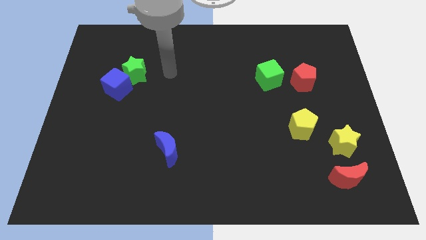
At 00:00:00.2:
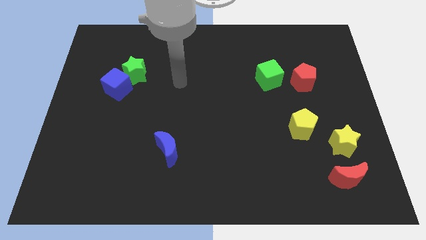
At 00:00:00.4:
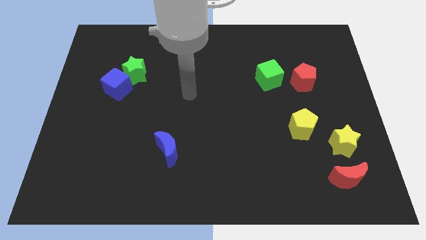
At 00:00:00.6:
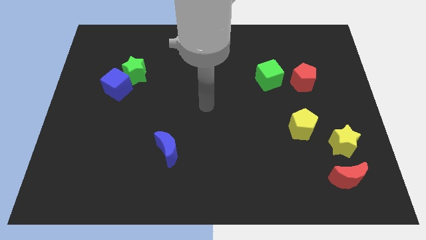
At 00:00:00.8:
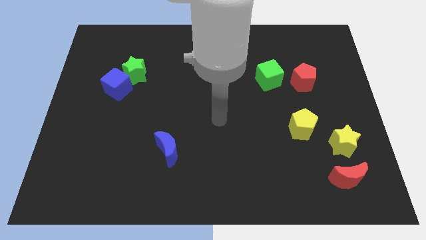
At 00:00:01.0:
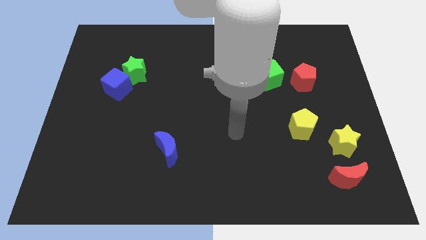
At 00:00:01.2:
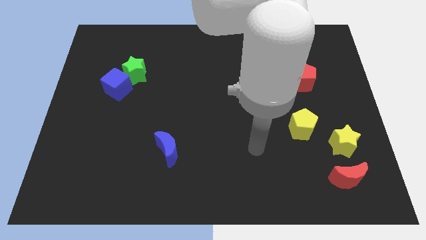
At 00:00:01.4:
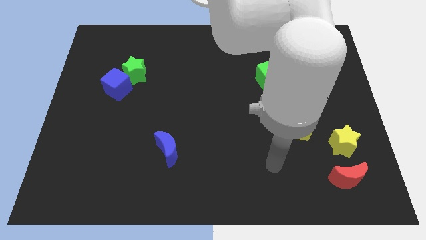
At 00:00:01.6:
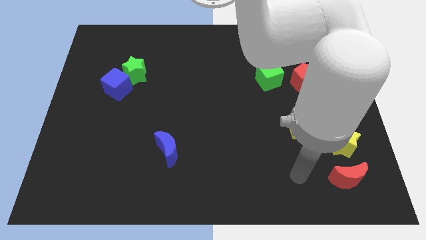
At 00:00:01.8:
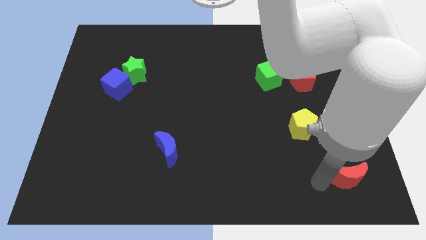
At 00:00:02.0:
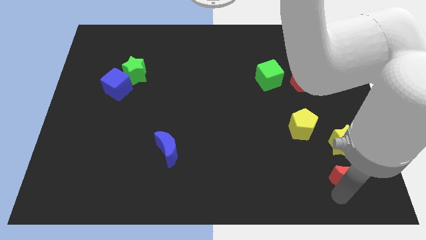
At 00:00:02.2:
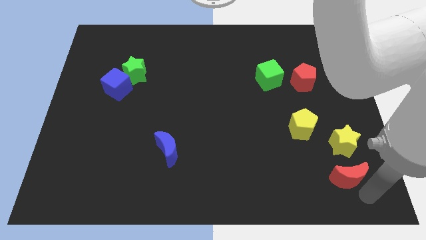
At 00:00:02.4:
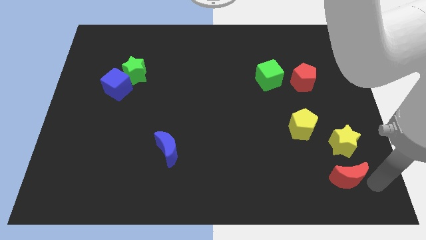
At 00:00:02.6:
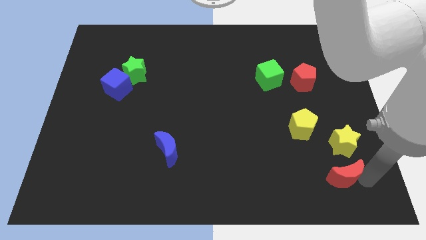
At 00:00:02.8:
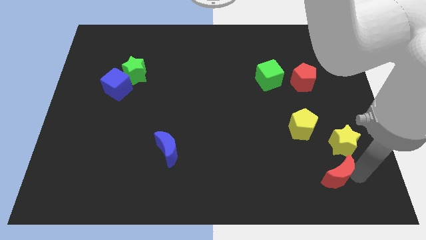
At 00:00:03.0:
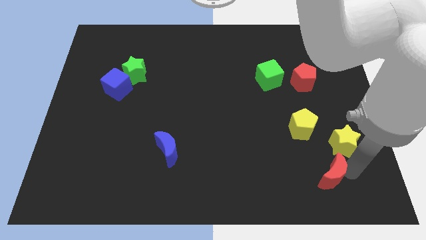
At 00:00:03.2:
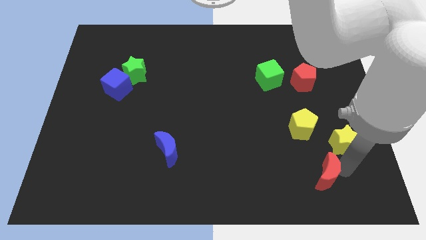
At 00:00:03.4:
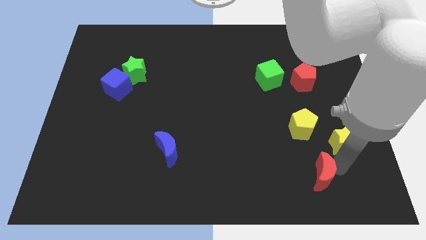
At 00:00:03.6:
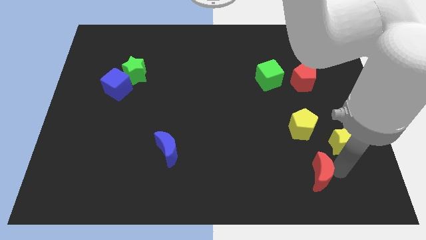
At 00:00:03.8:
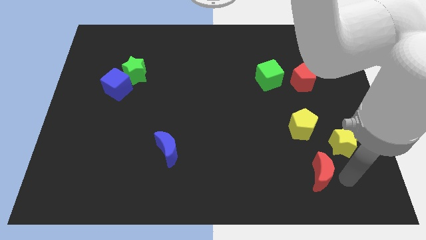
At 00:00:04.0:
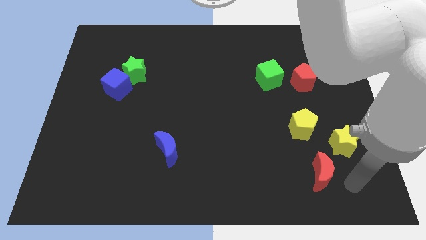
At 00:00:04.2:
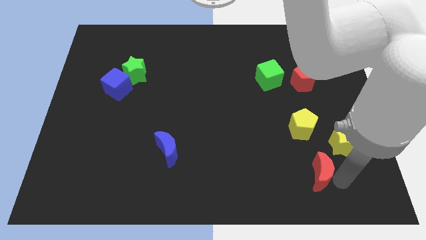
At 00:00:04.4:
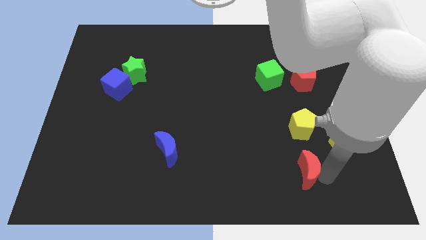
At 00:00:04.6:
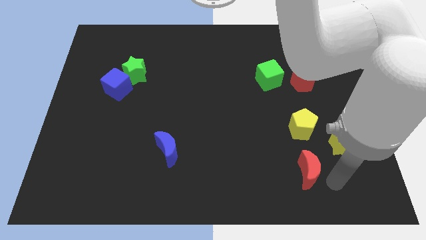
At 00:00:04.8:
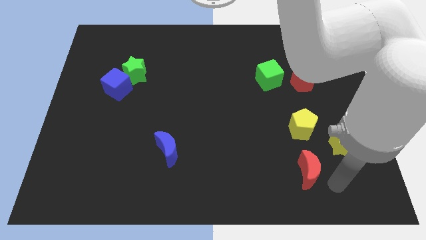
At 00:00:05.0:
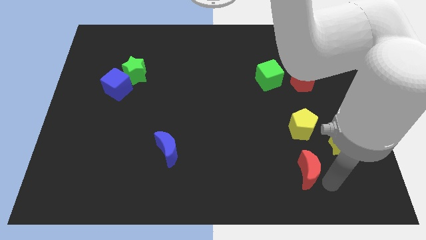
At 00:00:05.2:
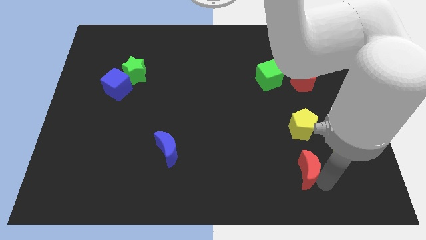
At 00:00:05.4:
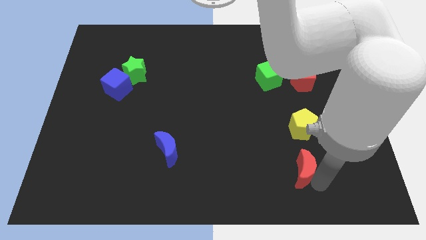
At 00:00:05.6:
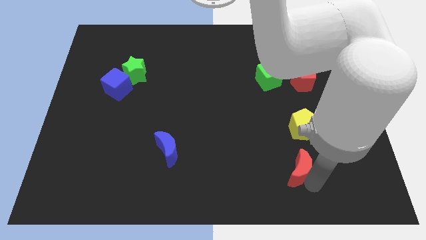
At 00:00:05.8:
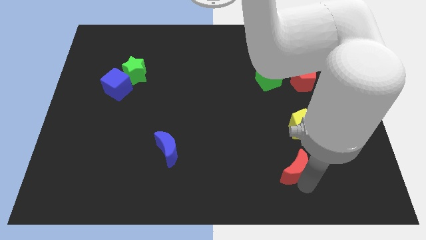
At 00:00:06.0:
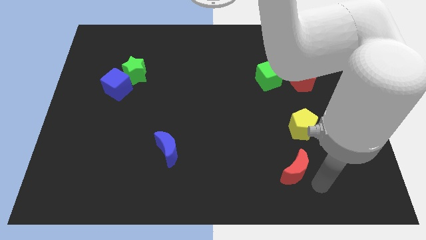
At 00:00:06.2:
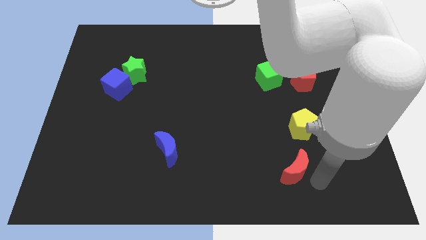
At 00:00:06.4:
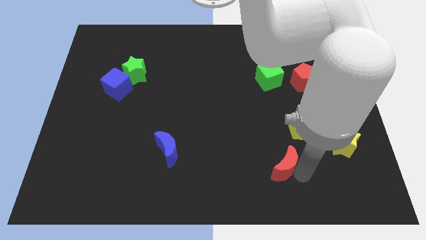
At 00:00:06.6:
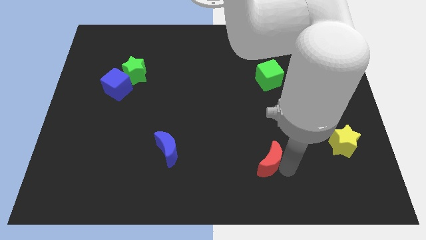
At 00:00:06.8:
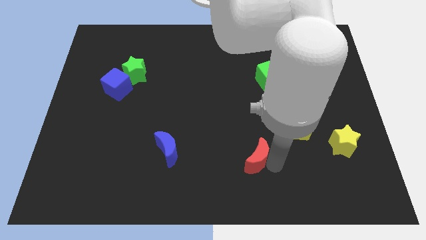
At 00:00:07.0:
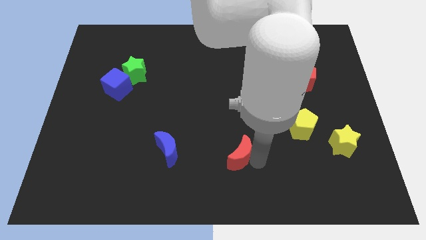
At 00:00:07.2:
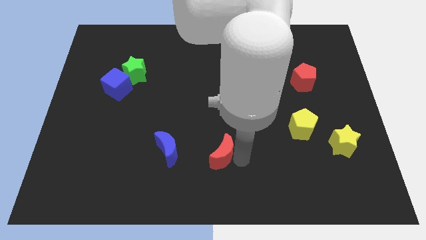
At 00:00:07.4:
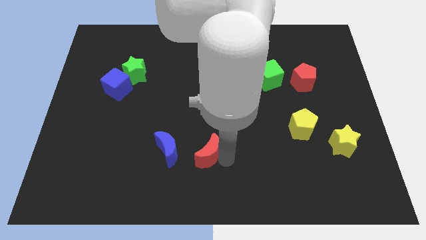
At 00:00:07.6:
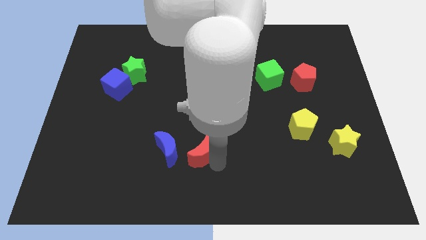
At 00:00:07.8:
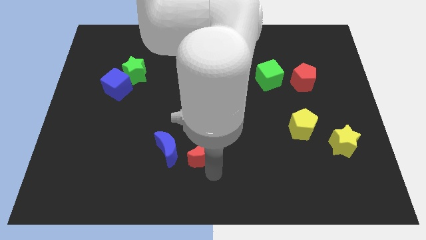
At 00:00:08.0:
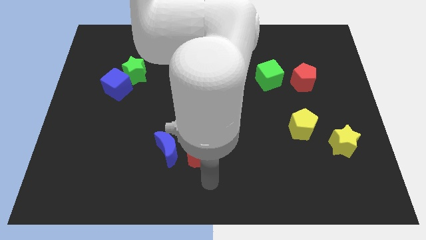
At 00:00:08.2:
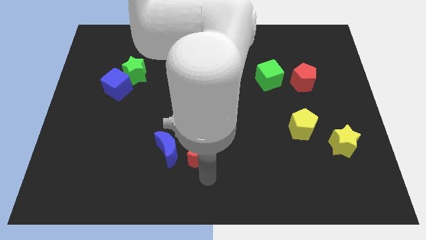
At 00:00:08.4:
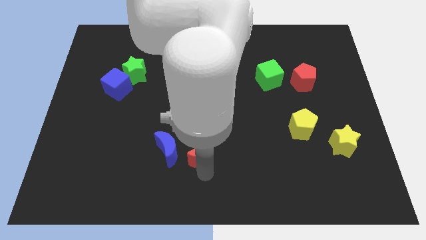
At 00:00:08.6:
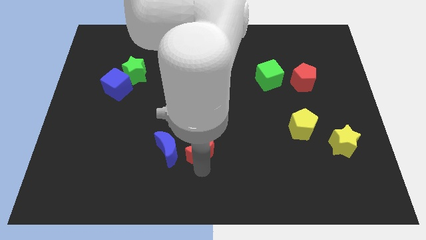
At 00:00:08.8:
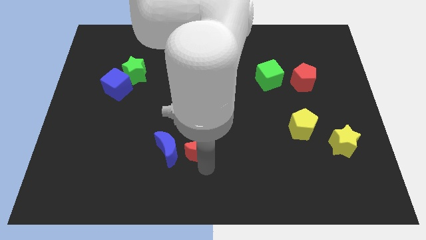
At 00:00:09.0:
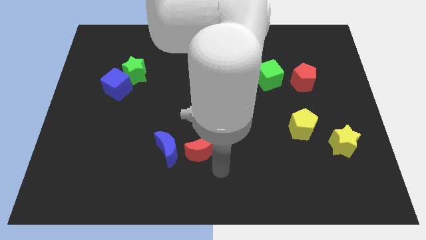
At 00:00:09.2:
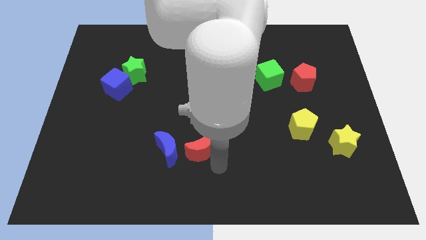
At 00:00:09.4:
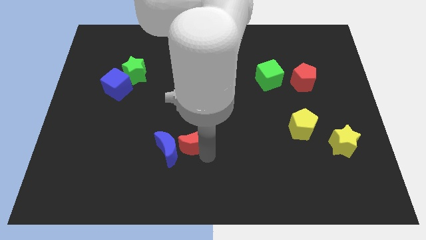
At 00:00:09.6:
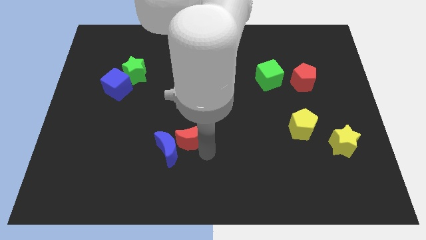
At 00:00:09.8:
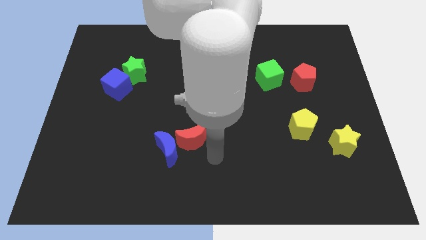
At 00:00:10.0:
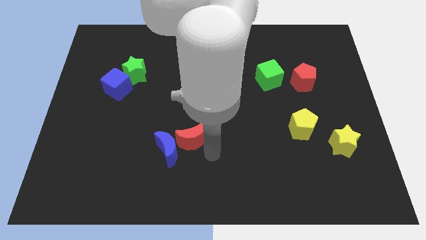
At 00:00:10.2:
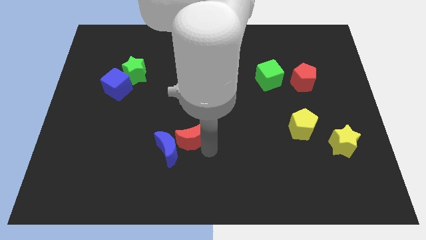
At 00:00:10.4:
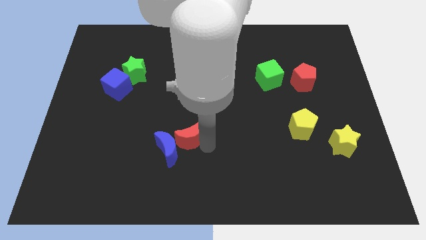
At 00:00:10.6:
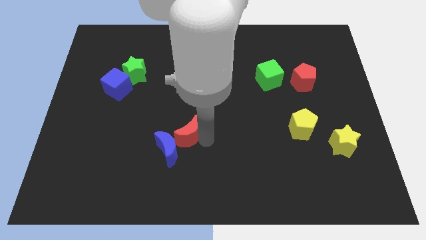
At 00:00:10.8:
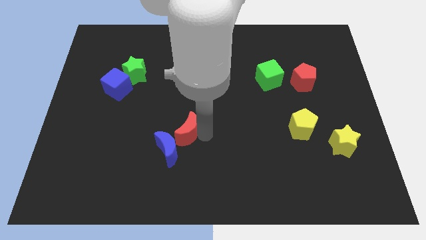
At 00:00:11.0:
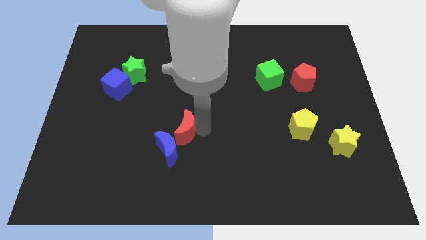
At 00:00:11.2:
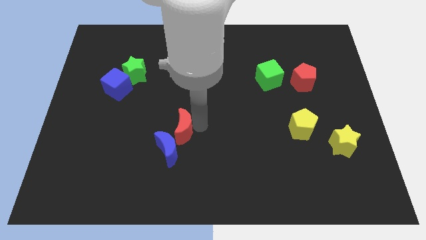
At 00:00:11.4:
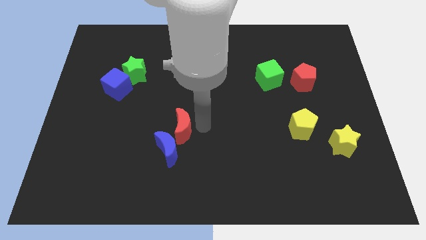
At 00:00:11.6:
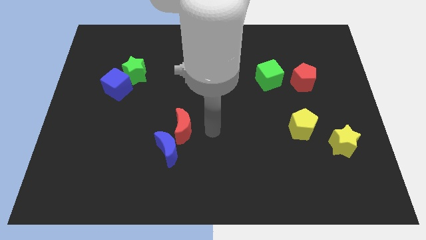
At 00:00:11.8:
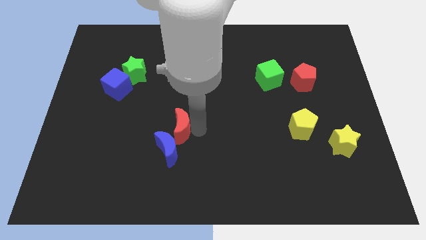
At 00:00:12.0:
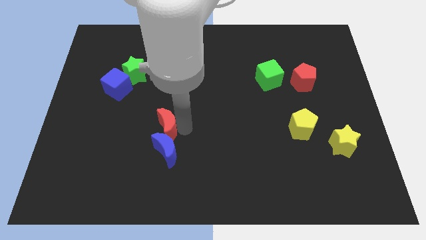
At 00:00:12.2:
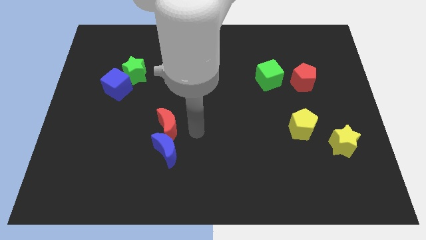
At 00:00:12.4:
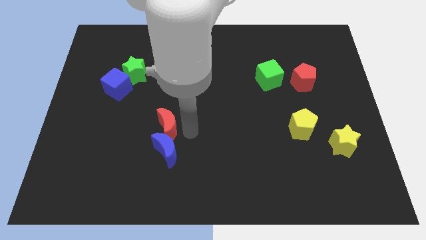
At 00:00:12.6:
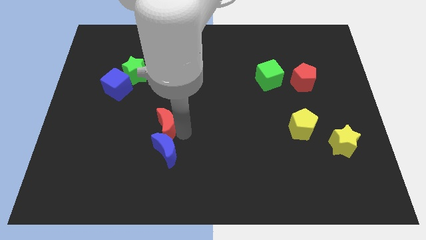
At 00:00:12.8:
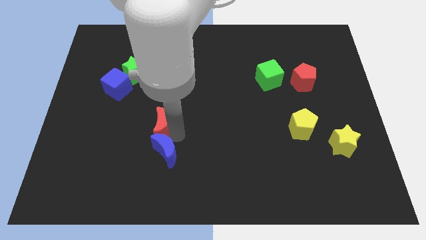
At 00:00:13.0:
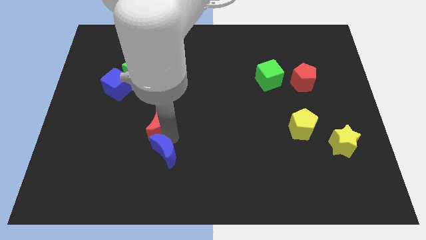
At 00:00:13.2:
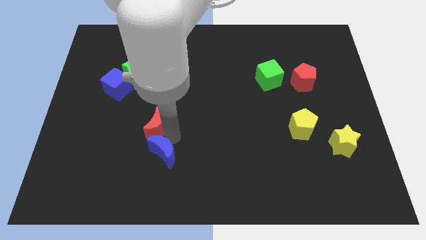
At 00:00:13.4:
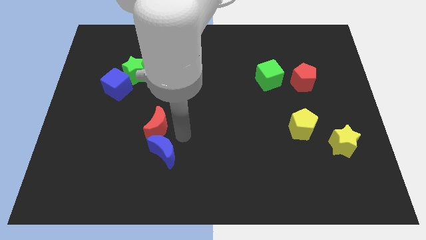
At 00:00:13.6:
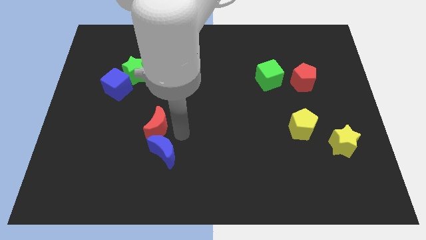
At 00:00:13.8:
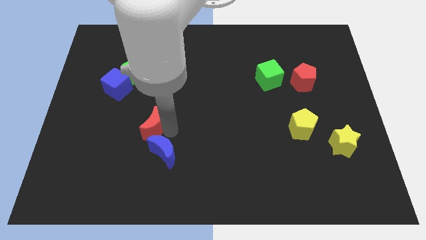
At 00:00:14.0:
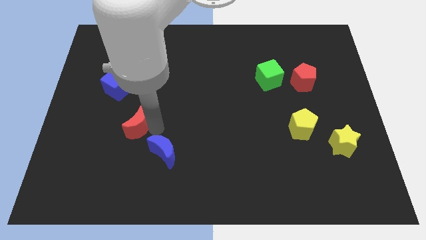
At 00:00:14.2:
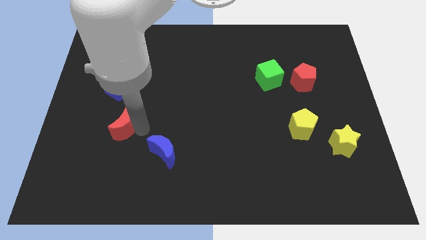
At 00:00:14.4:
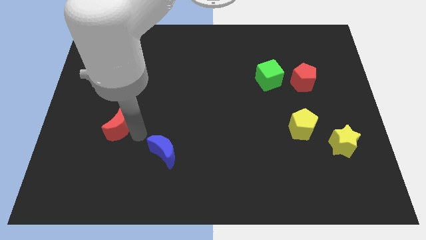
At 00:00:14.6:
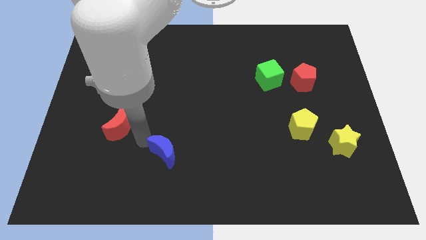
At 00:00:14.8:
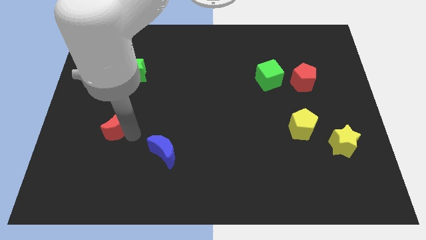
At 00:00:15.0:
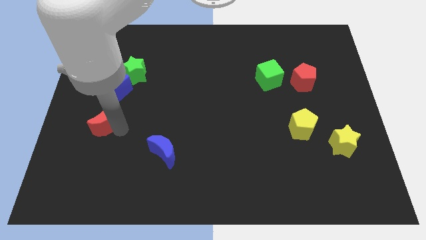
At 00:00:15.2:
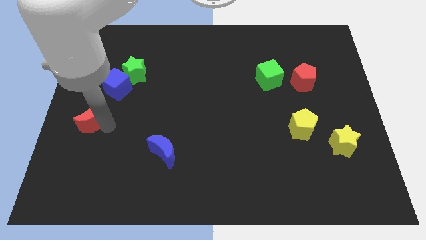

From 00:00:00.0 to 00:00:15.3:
slide the red moon to the left side
